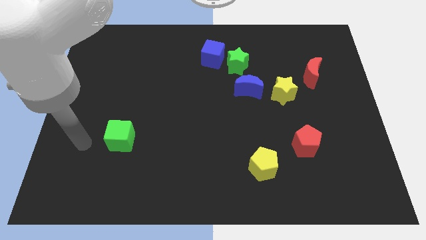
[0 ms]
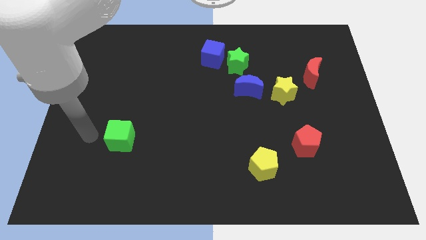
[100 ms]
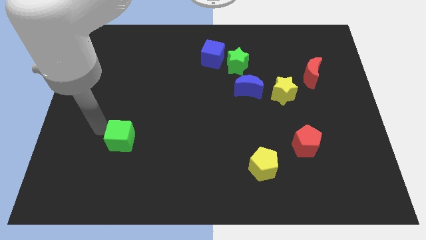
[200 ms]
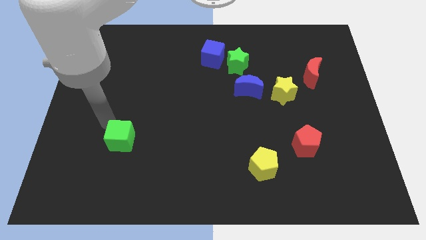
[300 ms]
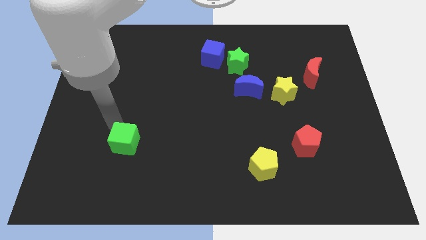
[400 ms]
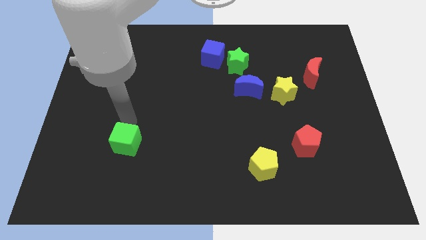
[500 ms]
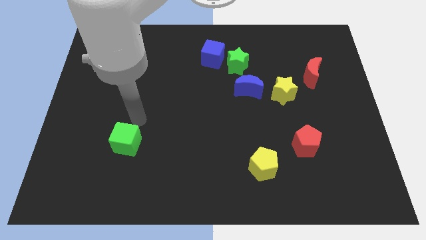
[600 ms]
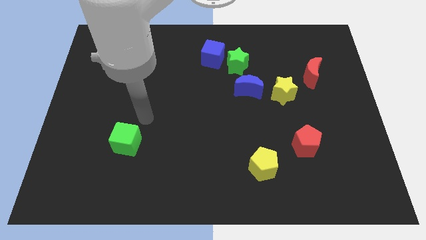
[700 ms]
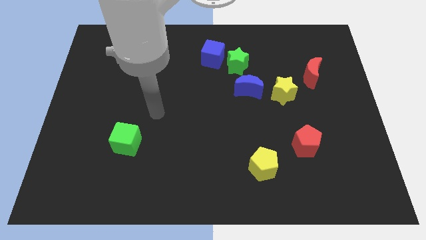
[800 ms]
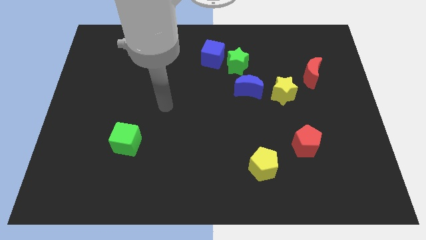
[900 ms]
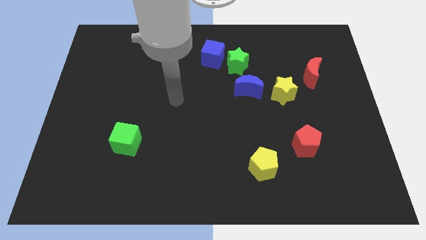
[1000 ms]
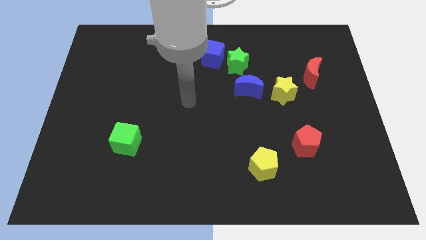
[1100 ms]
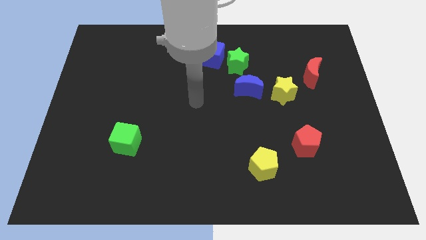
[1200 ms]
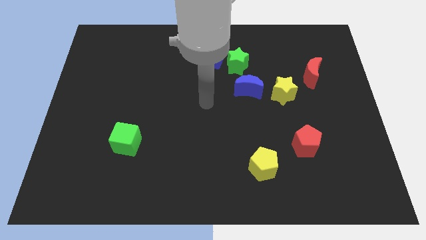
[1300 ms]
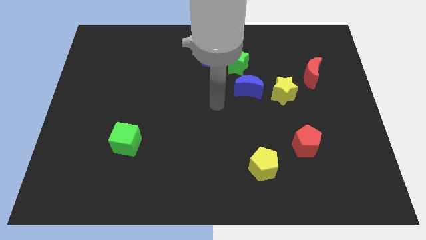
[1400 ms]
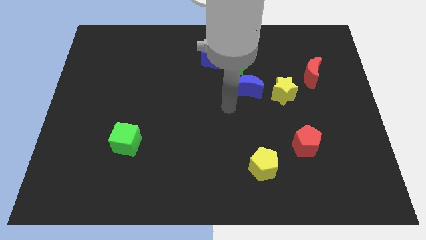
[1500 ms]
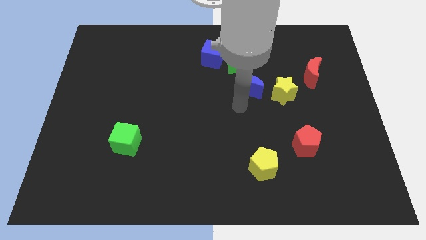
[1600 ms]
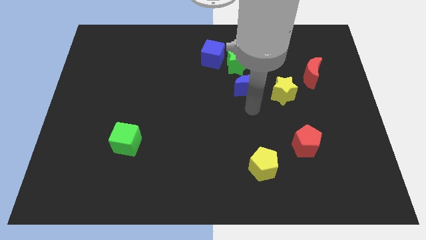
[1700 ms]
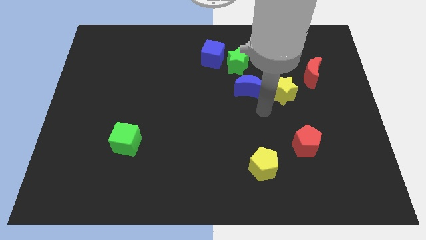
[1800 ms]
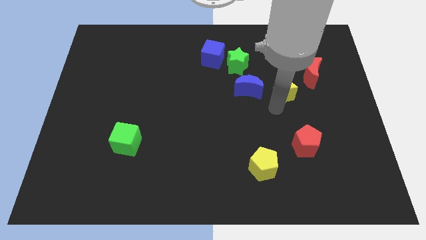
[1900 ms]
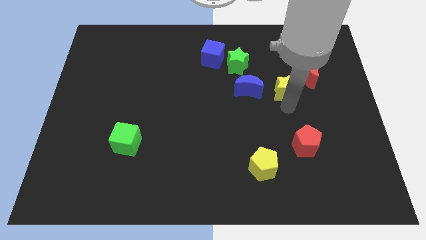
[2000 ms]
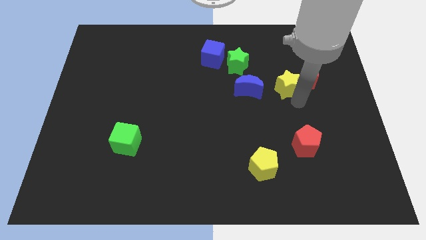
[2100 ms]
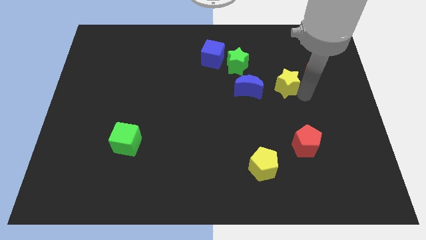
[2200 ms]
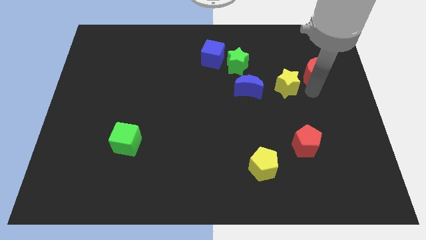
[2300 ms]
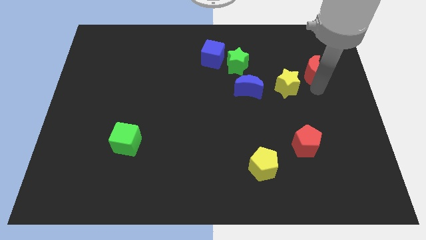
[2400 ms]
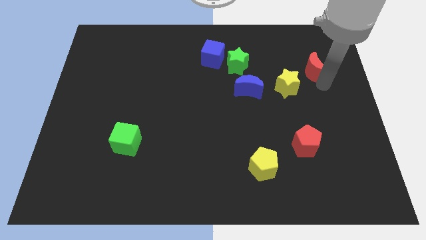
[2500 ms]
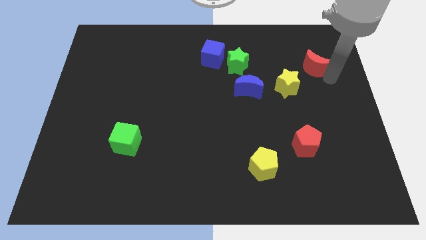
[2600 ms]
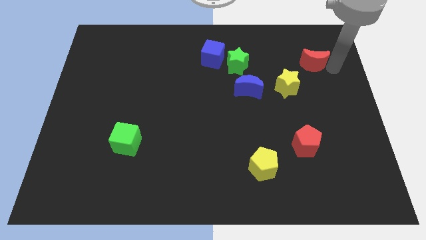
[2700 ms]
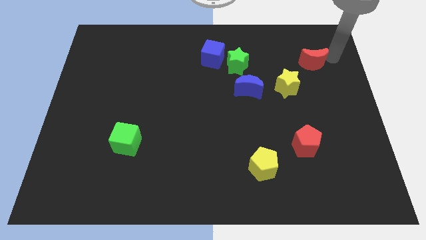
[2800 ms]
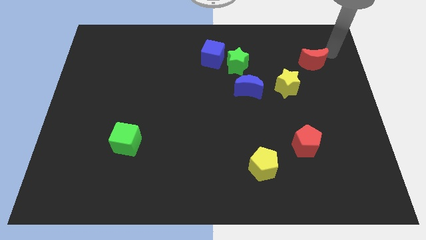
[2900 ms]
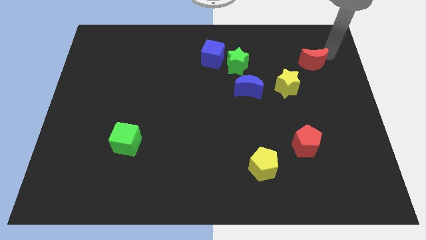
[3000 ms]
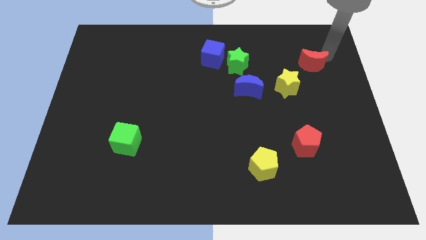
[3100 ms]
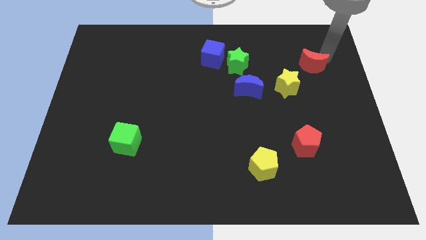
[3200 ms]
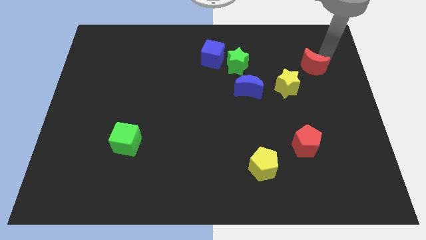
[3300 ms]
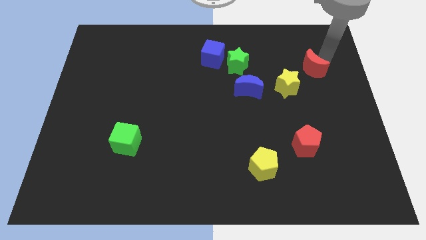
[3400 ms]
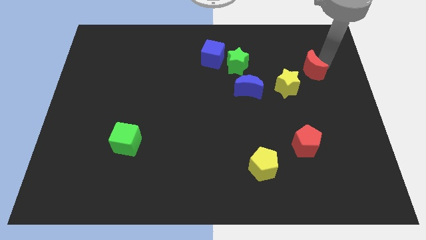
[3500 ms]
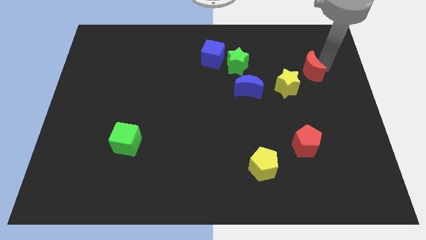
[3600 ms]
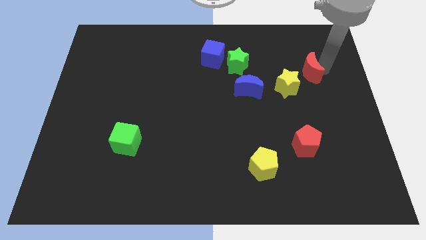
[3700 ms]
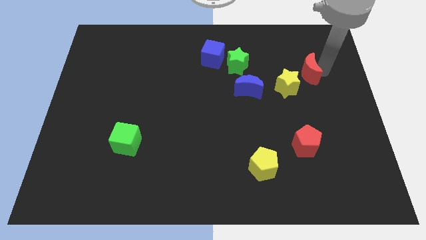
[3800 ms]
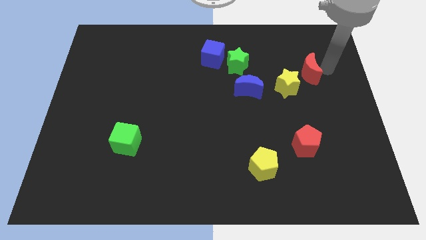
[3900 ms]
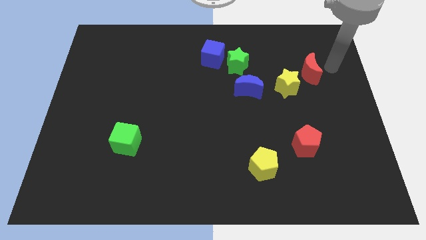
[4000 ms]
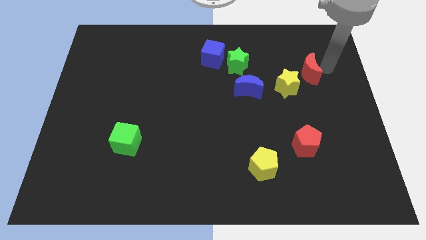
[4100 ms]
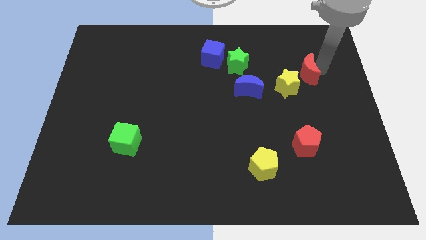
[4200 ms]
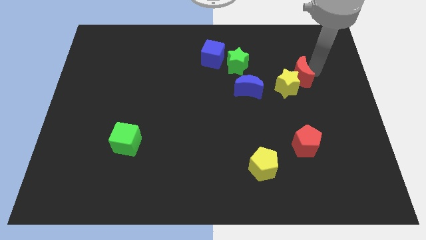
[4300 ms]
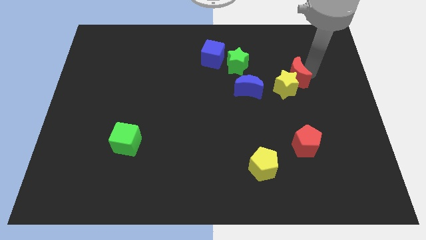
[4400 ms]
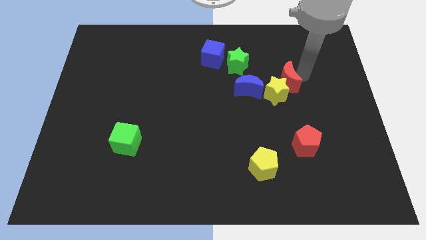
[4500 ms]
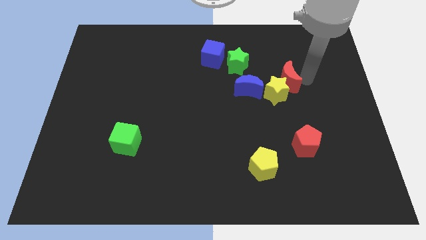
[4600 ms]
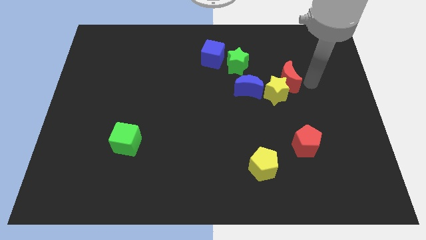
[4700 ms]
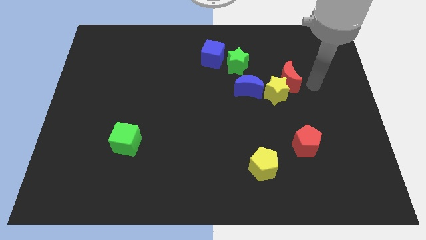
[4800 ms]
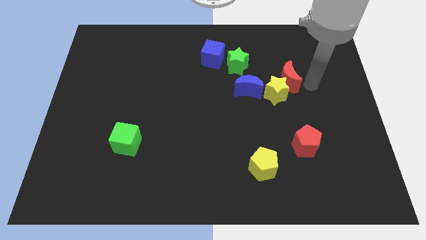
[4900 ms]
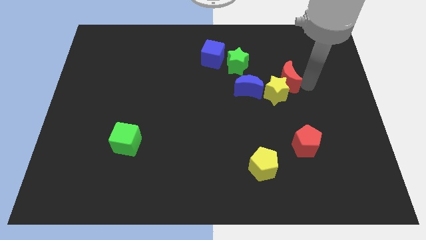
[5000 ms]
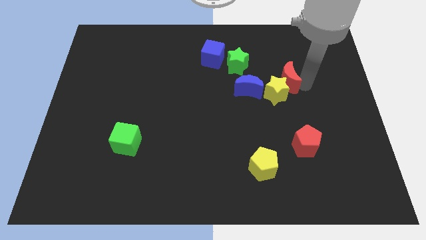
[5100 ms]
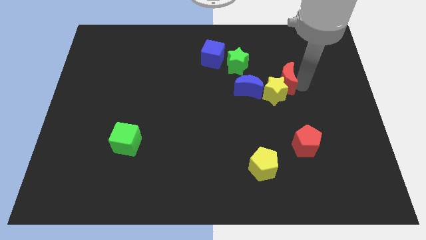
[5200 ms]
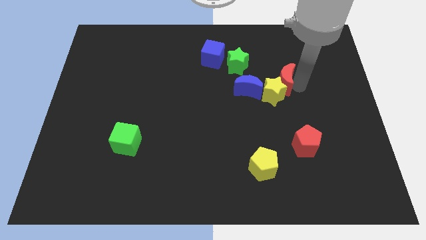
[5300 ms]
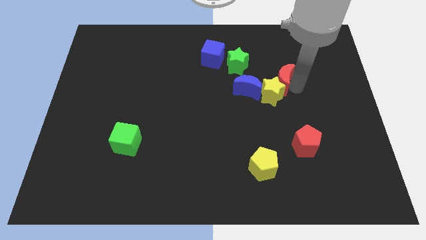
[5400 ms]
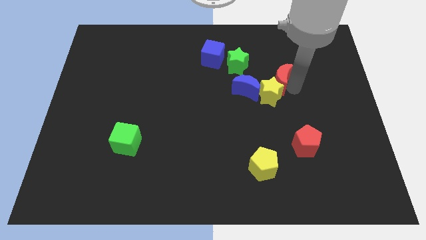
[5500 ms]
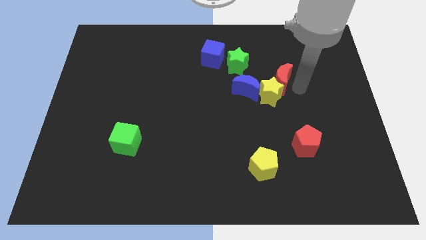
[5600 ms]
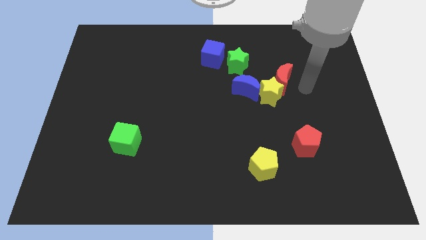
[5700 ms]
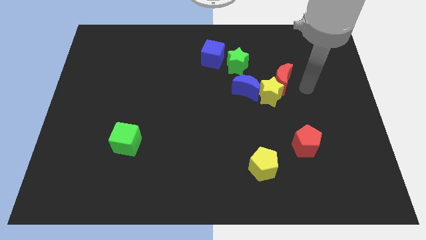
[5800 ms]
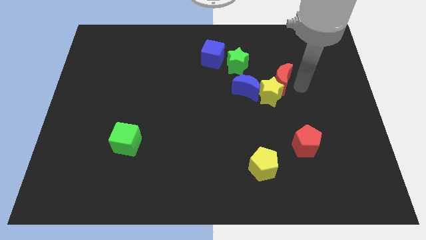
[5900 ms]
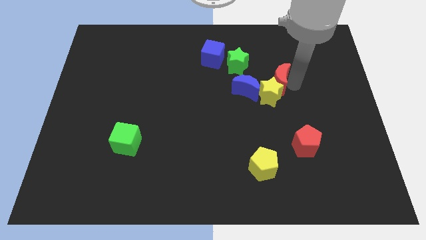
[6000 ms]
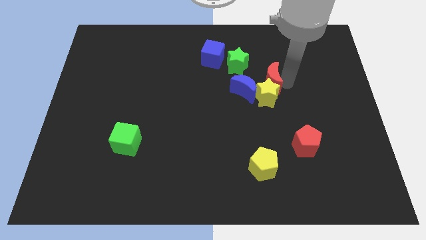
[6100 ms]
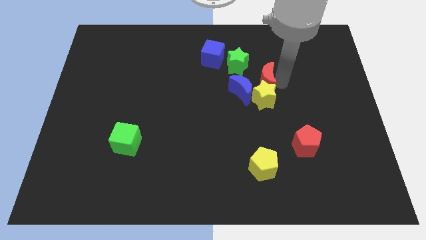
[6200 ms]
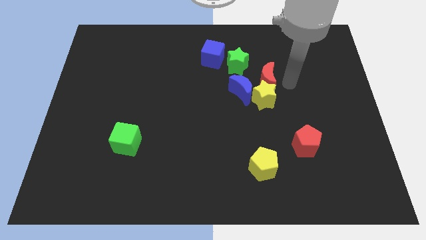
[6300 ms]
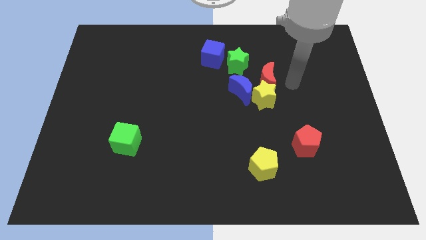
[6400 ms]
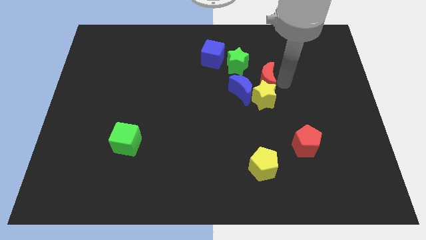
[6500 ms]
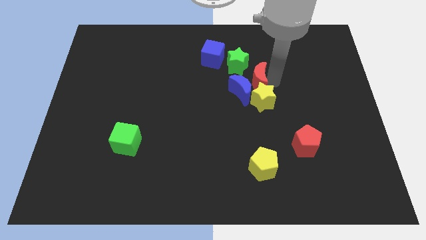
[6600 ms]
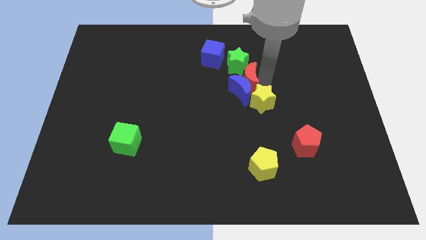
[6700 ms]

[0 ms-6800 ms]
move the red moon diagonally up and to the left of the blue moon
